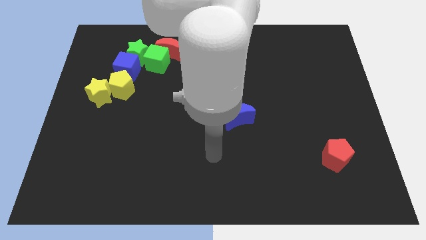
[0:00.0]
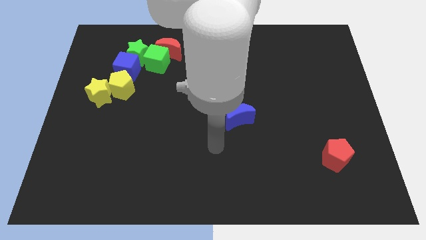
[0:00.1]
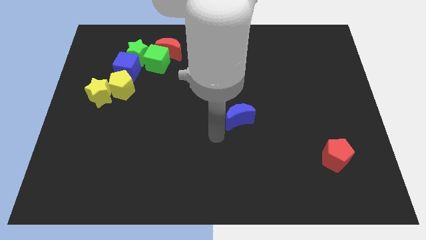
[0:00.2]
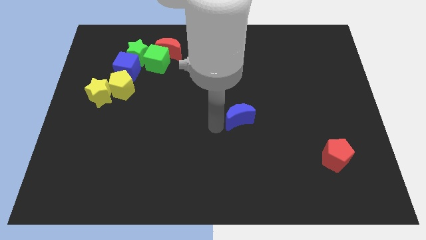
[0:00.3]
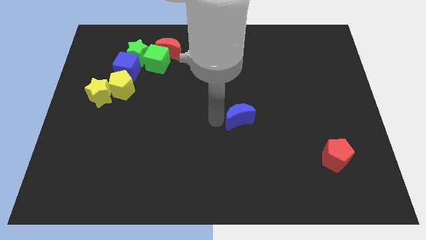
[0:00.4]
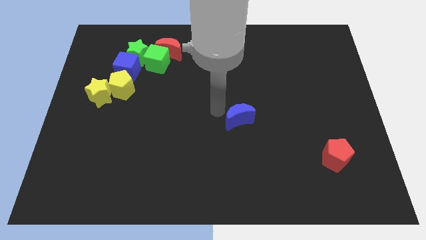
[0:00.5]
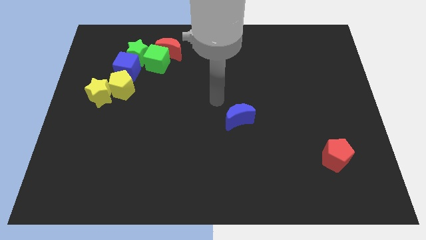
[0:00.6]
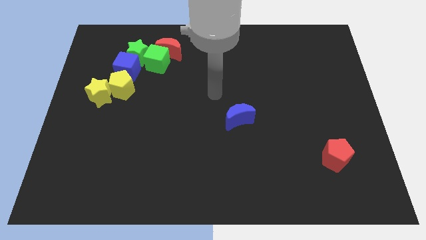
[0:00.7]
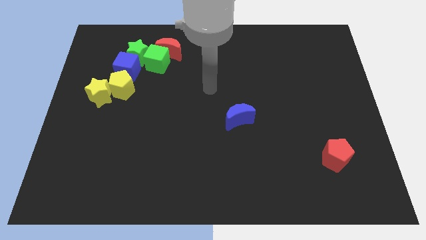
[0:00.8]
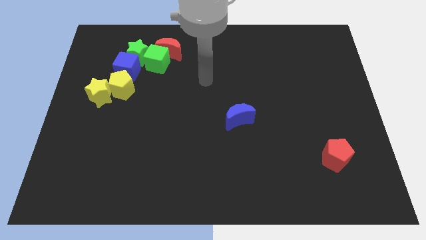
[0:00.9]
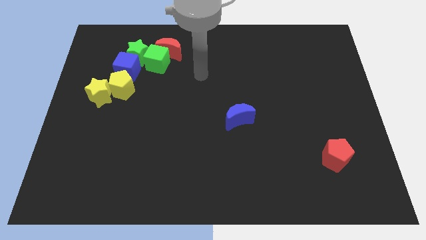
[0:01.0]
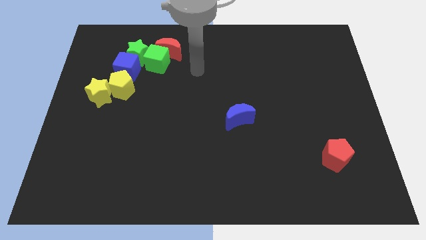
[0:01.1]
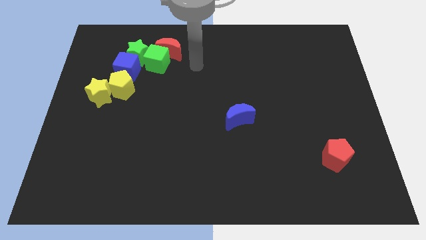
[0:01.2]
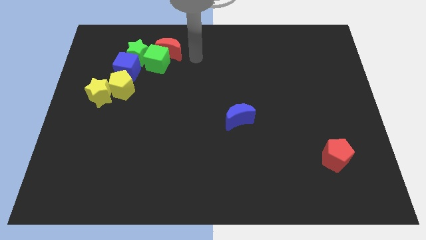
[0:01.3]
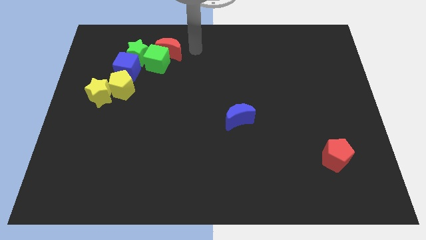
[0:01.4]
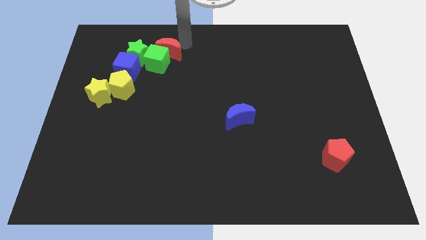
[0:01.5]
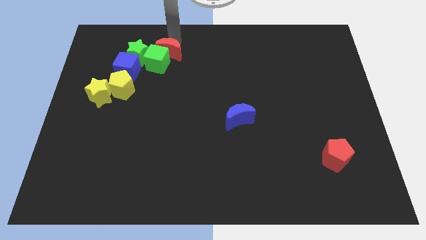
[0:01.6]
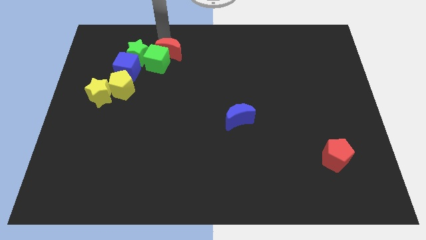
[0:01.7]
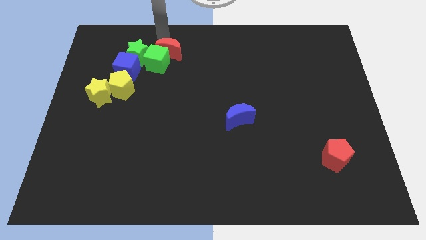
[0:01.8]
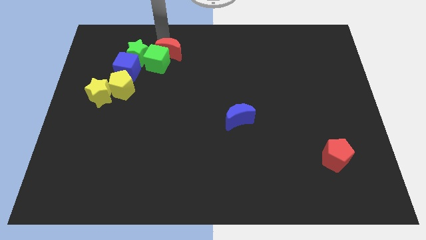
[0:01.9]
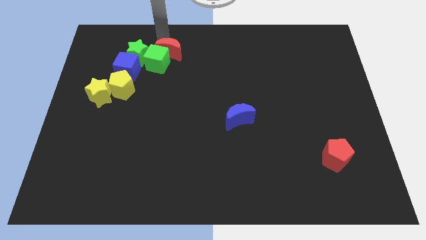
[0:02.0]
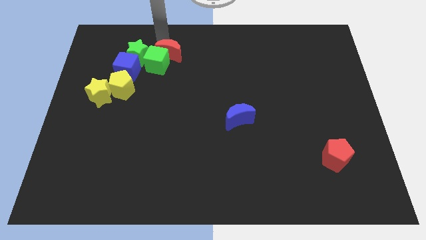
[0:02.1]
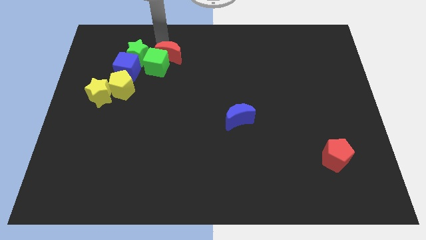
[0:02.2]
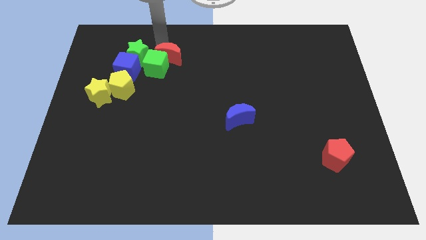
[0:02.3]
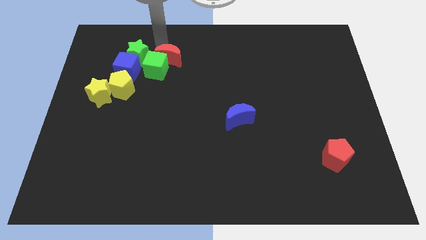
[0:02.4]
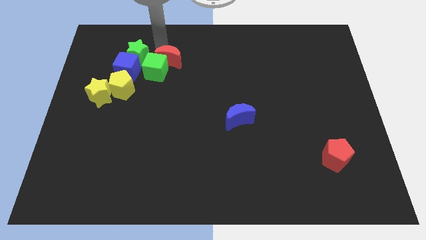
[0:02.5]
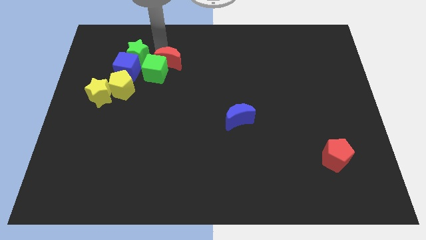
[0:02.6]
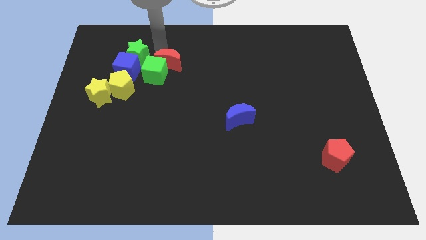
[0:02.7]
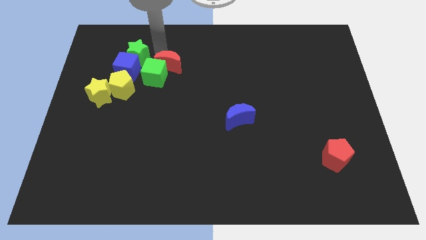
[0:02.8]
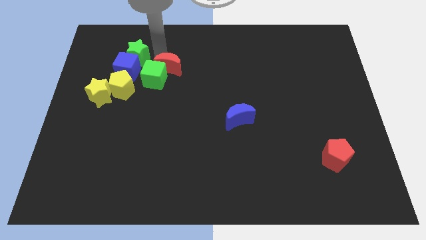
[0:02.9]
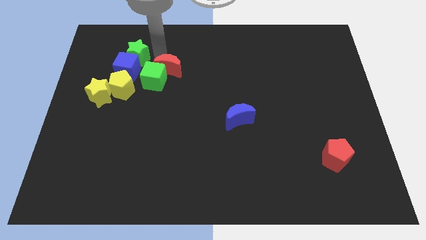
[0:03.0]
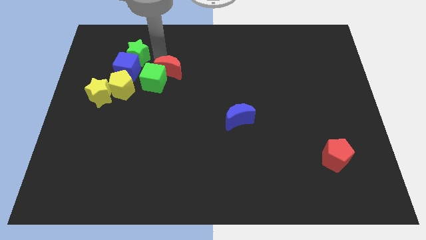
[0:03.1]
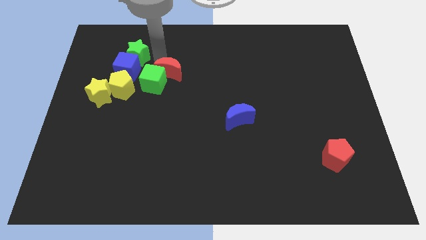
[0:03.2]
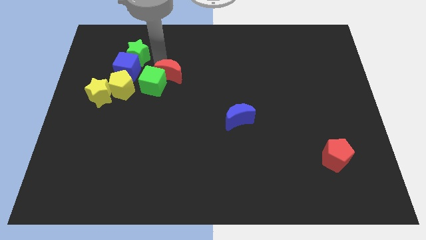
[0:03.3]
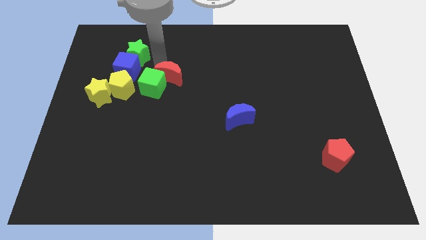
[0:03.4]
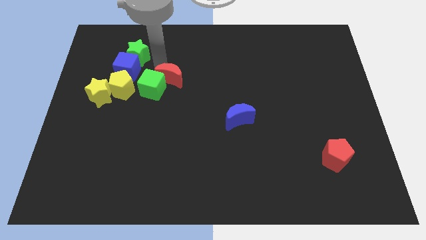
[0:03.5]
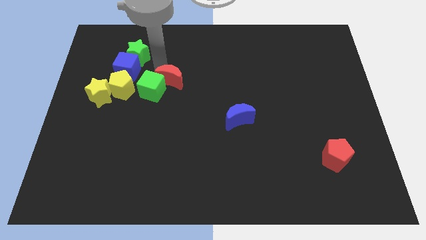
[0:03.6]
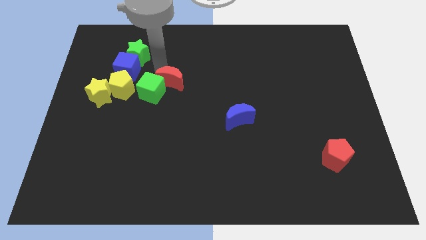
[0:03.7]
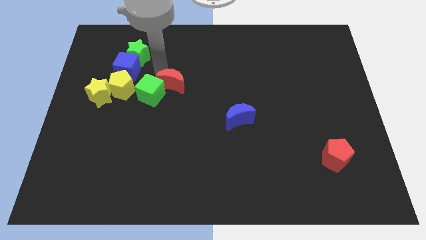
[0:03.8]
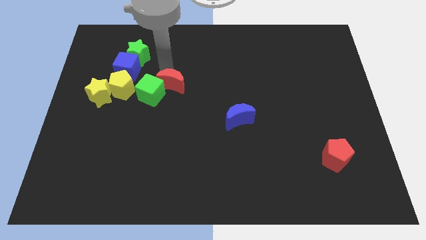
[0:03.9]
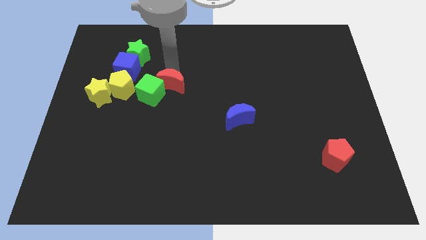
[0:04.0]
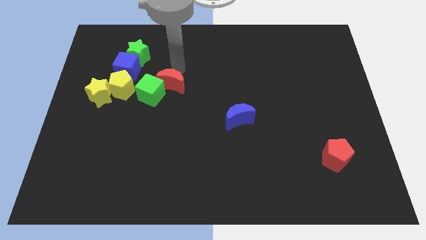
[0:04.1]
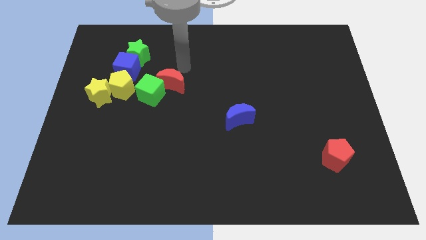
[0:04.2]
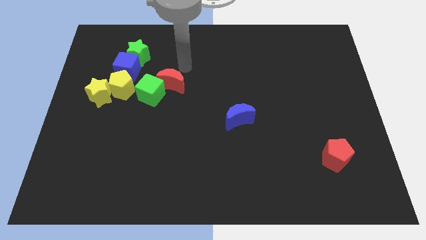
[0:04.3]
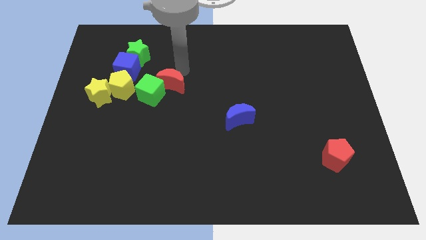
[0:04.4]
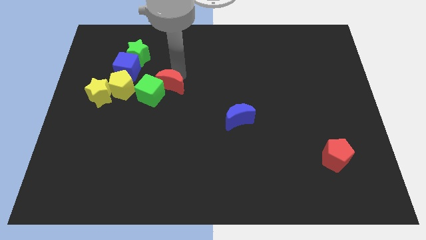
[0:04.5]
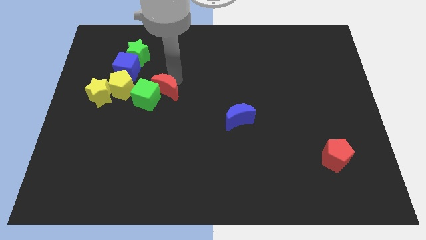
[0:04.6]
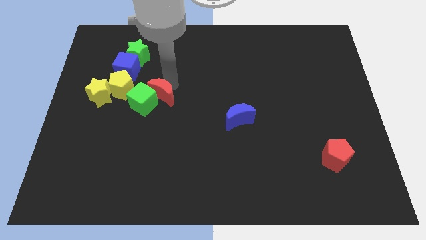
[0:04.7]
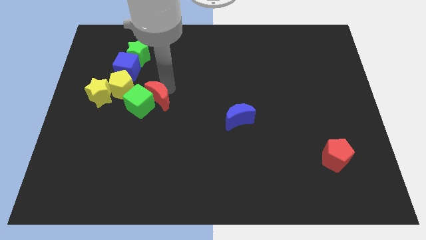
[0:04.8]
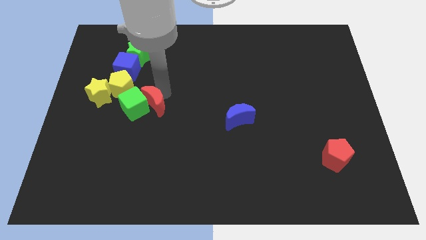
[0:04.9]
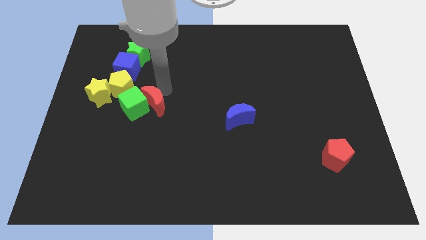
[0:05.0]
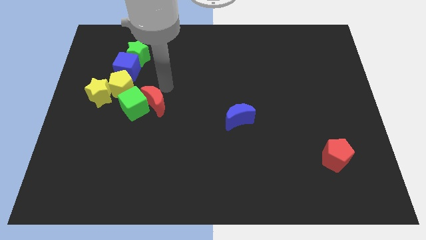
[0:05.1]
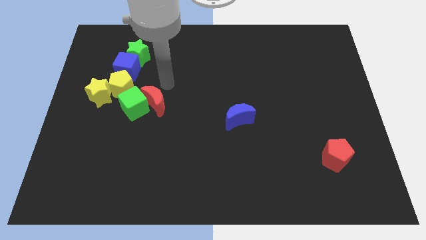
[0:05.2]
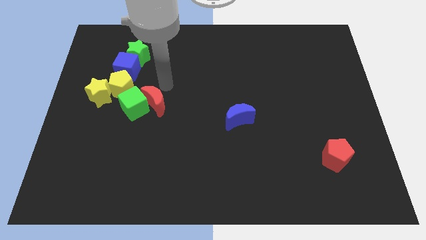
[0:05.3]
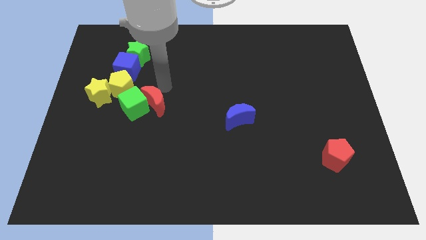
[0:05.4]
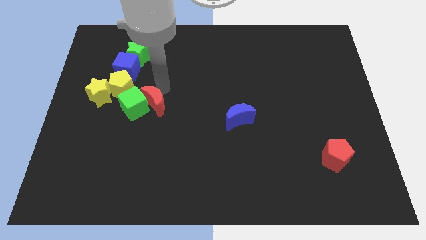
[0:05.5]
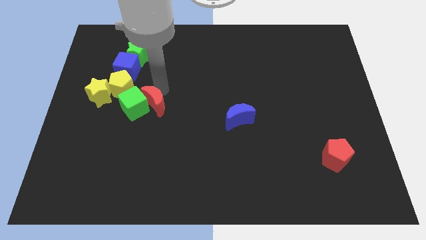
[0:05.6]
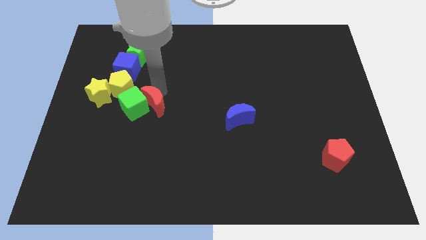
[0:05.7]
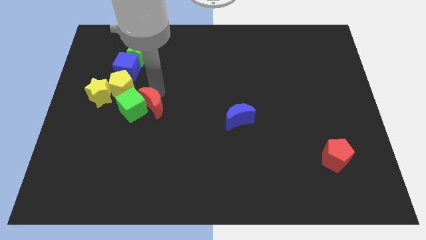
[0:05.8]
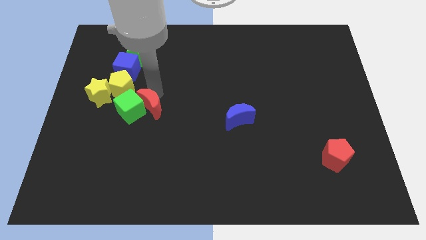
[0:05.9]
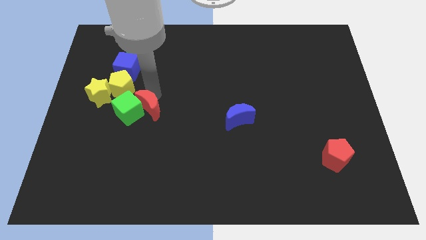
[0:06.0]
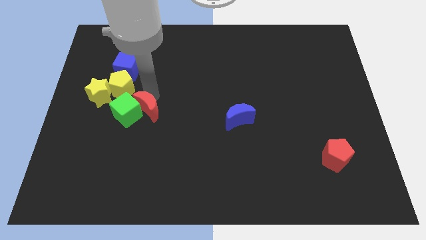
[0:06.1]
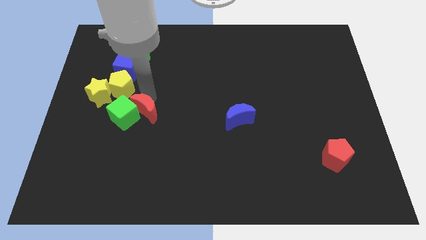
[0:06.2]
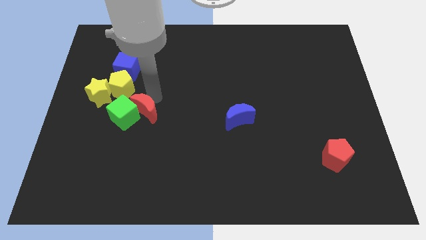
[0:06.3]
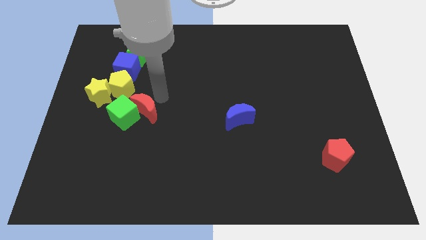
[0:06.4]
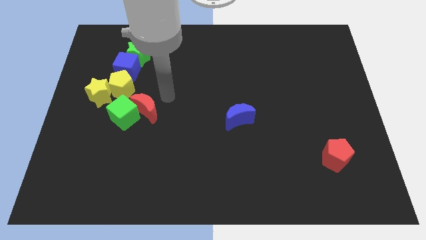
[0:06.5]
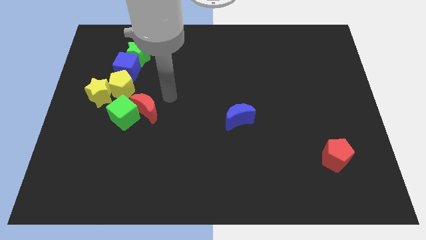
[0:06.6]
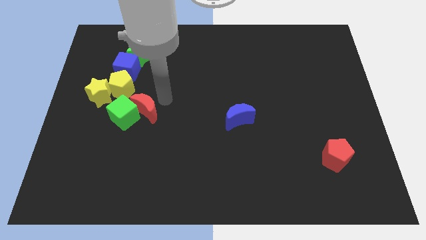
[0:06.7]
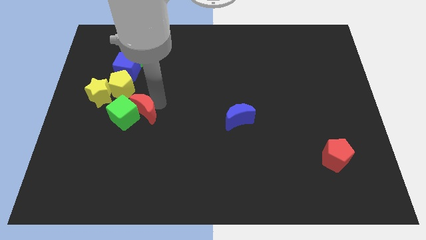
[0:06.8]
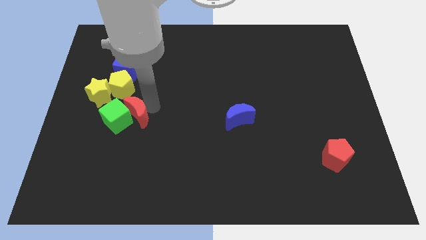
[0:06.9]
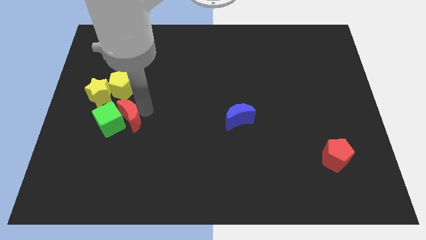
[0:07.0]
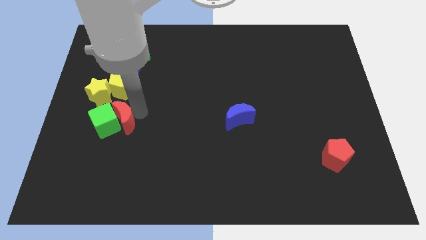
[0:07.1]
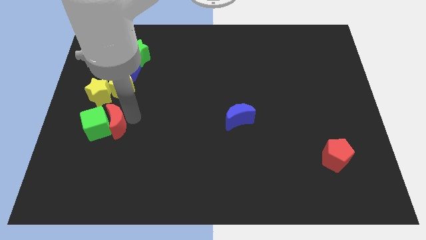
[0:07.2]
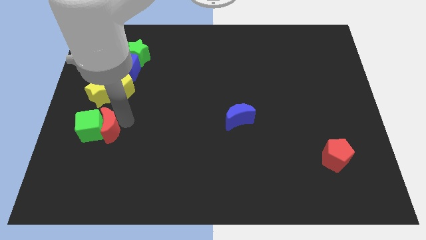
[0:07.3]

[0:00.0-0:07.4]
put the red moon below the yellow star
